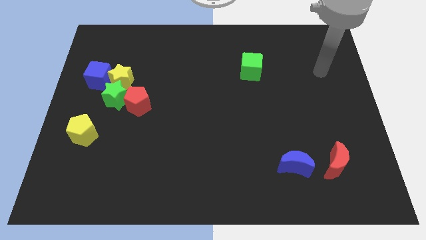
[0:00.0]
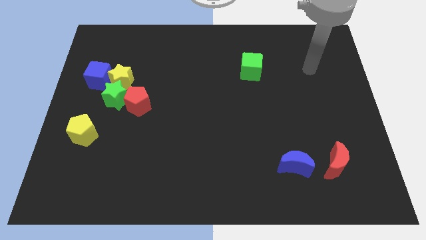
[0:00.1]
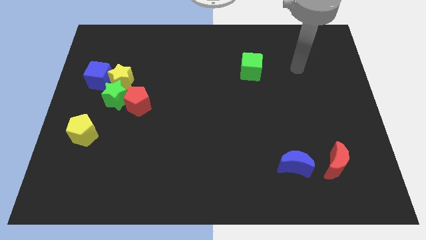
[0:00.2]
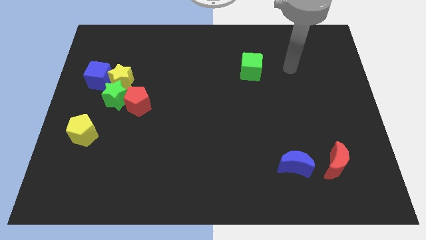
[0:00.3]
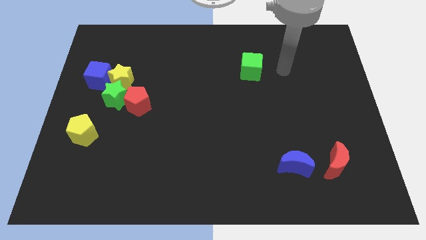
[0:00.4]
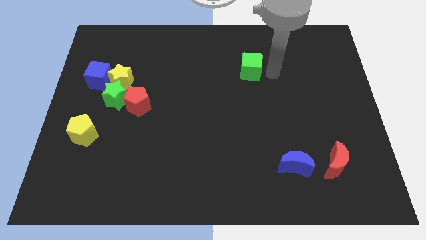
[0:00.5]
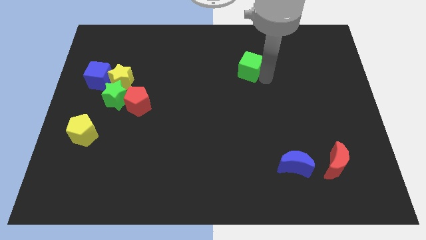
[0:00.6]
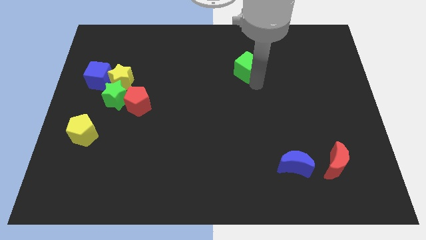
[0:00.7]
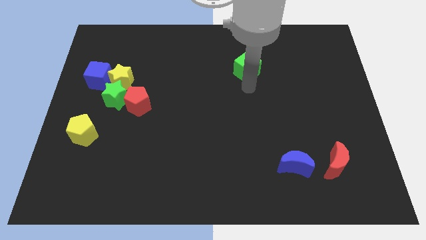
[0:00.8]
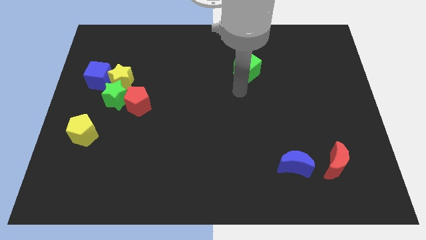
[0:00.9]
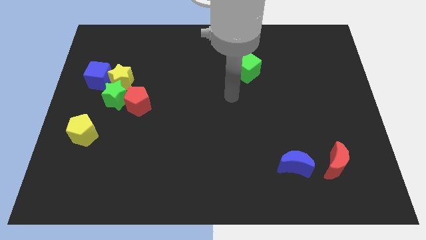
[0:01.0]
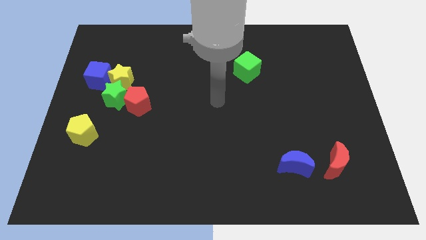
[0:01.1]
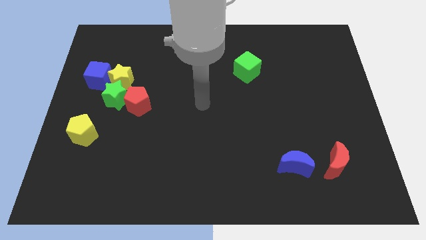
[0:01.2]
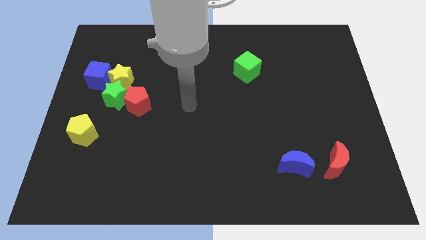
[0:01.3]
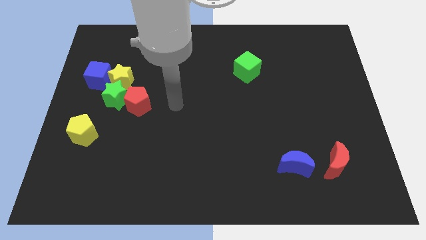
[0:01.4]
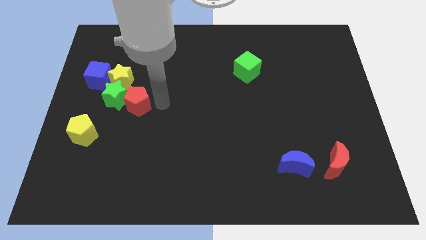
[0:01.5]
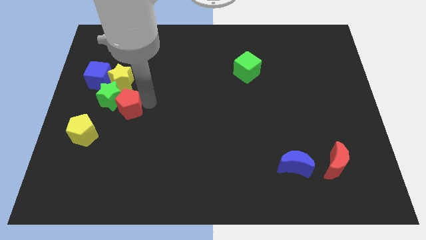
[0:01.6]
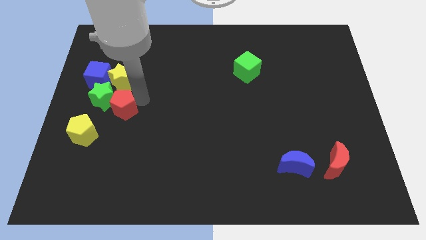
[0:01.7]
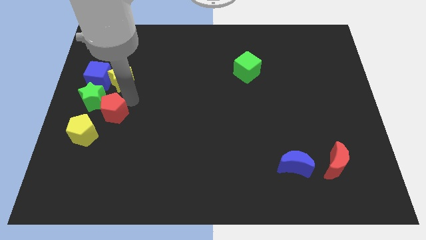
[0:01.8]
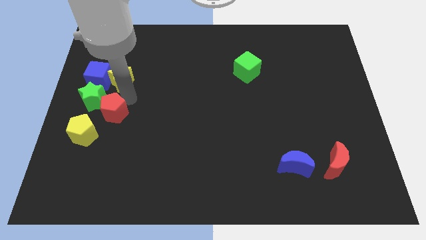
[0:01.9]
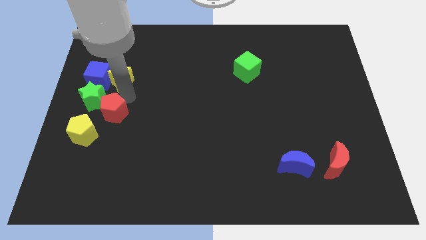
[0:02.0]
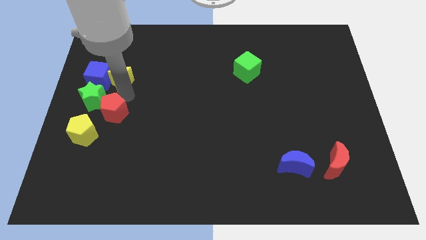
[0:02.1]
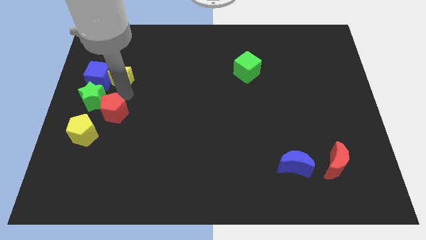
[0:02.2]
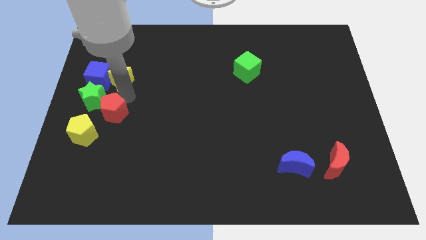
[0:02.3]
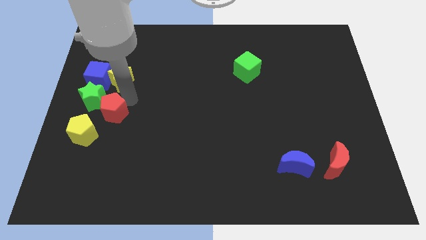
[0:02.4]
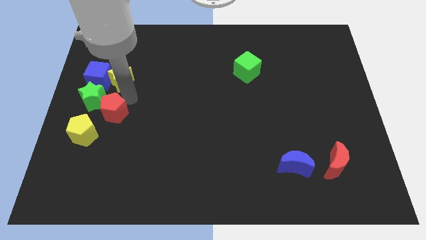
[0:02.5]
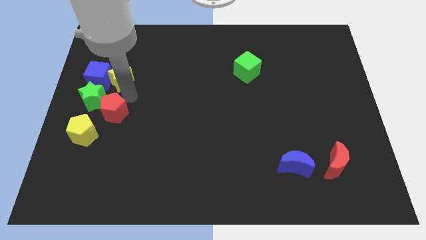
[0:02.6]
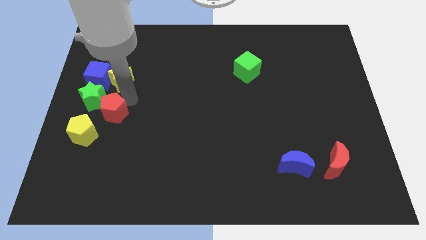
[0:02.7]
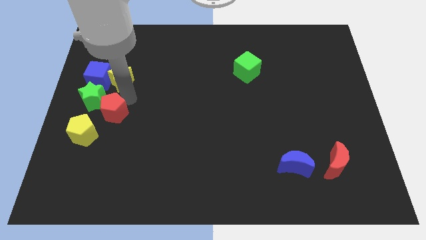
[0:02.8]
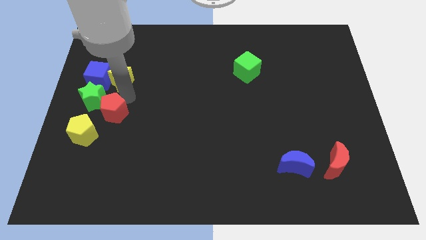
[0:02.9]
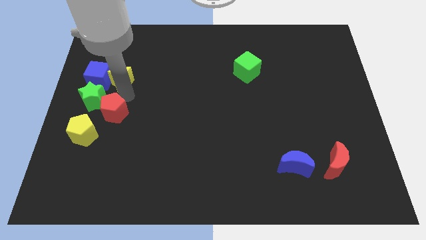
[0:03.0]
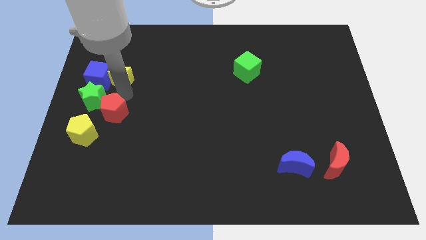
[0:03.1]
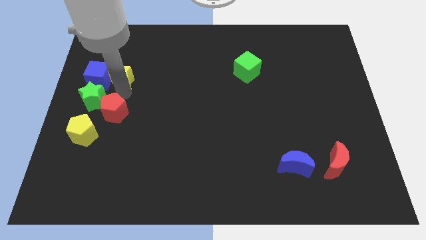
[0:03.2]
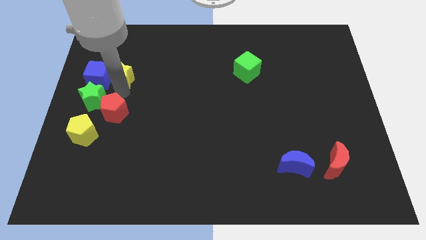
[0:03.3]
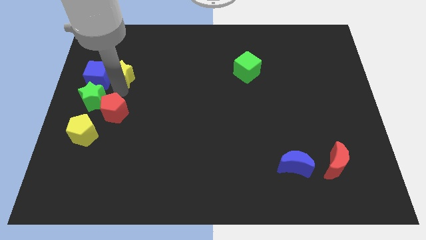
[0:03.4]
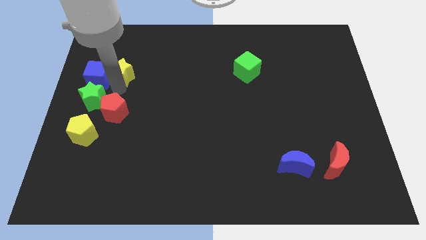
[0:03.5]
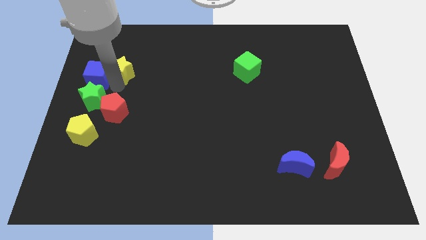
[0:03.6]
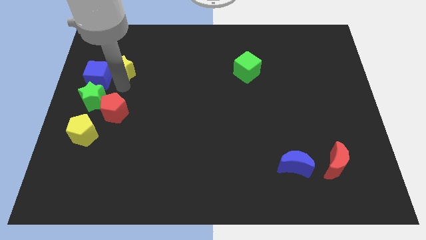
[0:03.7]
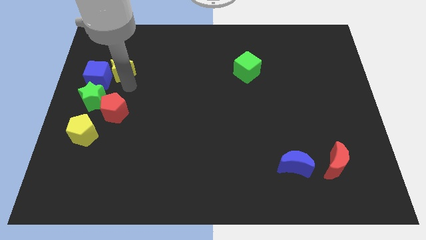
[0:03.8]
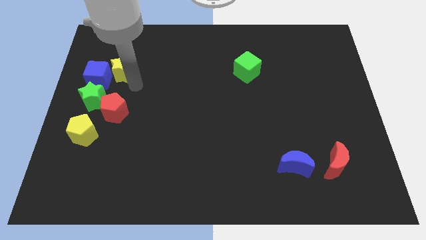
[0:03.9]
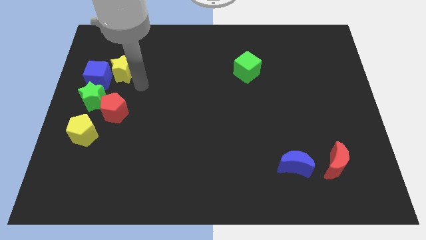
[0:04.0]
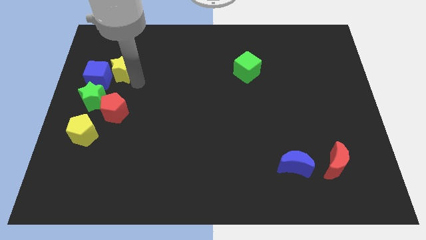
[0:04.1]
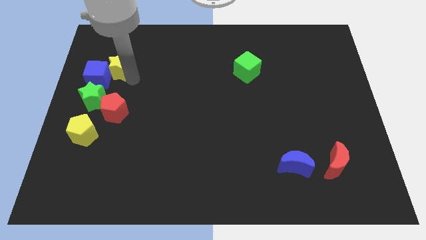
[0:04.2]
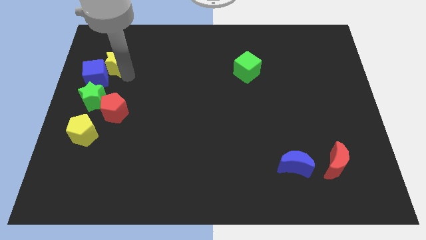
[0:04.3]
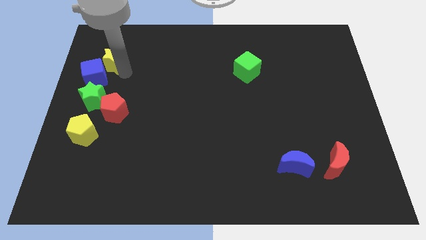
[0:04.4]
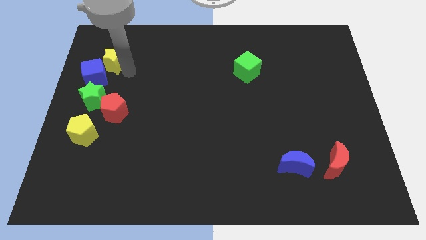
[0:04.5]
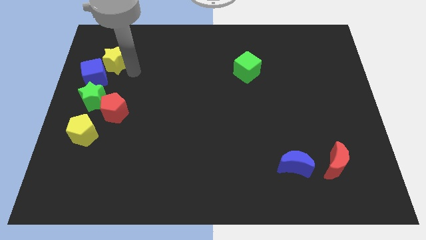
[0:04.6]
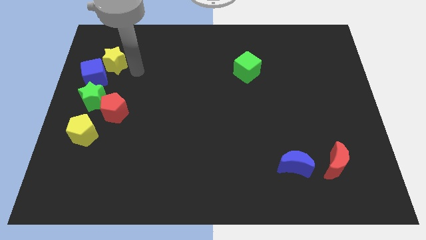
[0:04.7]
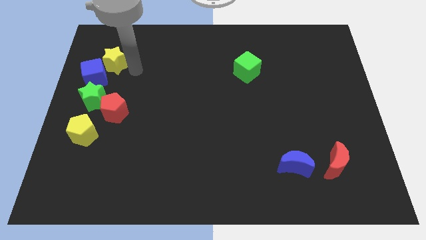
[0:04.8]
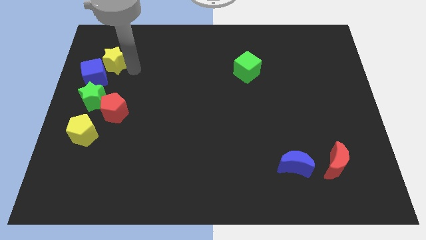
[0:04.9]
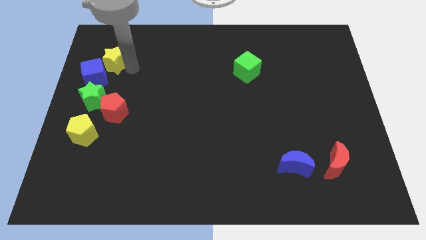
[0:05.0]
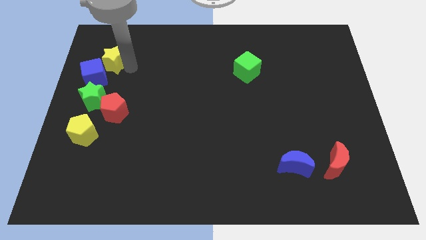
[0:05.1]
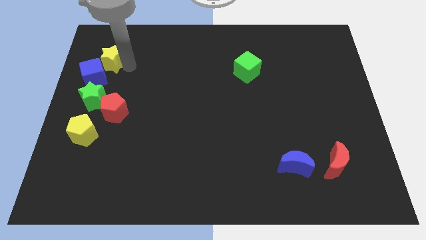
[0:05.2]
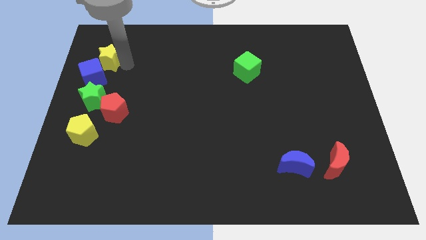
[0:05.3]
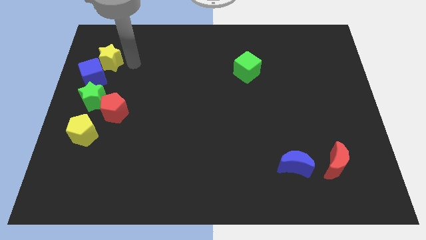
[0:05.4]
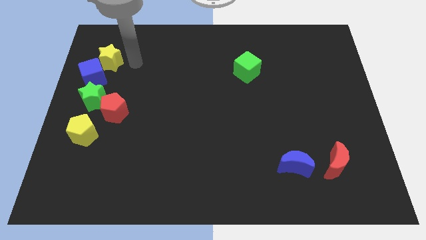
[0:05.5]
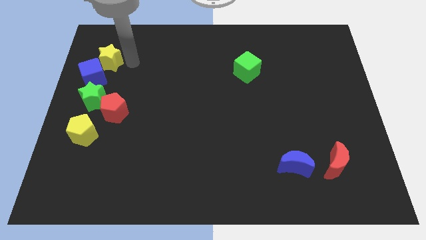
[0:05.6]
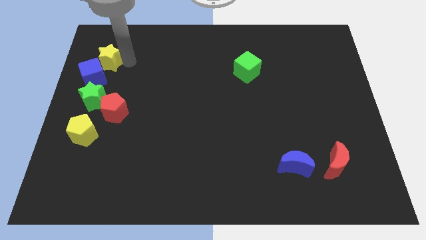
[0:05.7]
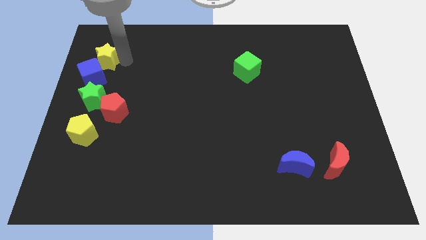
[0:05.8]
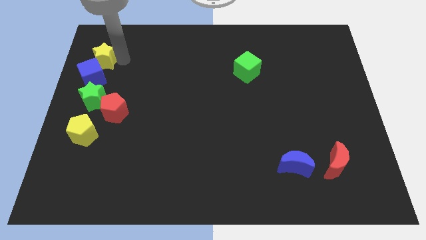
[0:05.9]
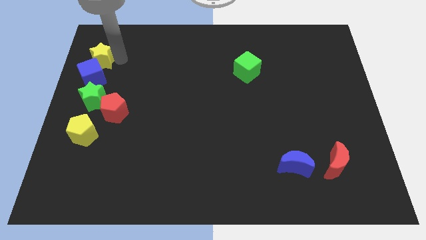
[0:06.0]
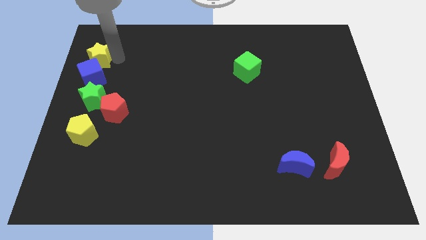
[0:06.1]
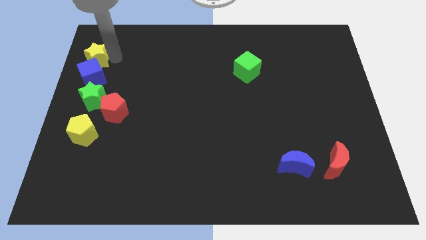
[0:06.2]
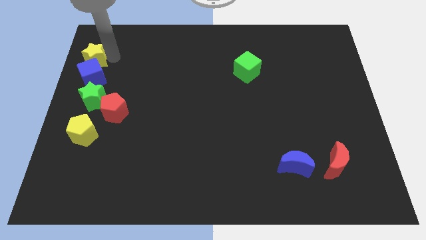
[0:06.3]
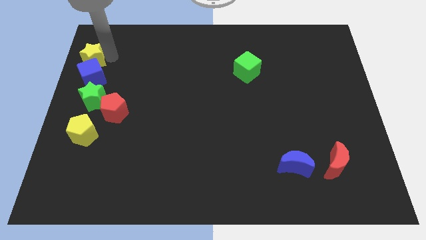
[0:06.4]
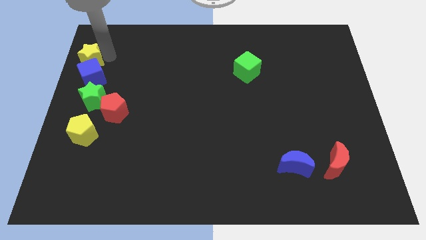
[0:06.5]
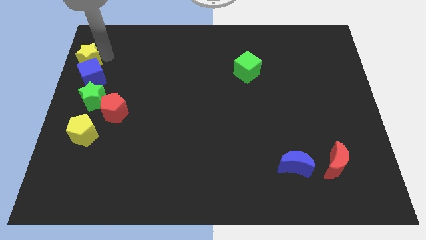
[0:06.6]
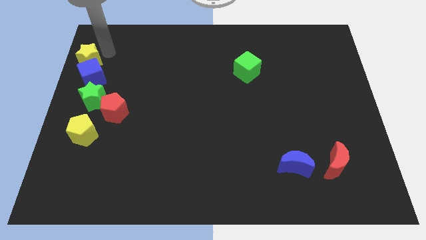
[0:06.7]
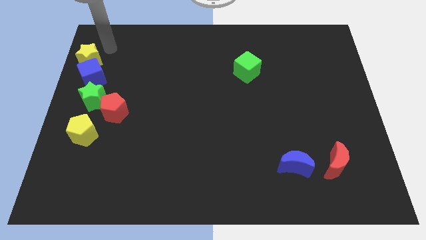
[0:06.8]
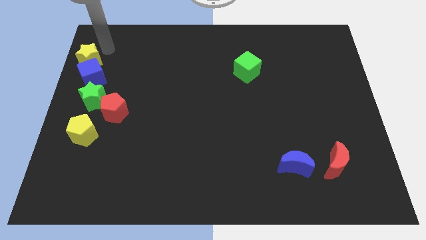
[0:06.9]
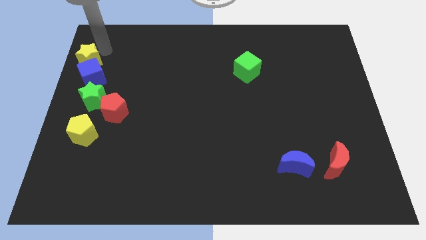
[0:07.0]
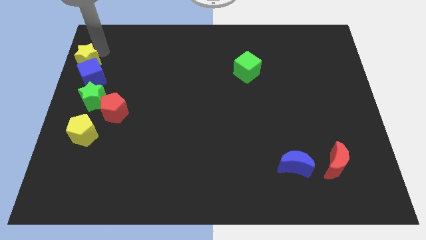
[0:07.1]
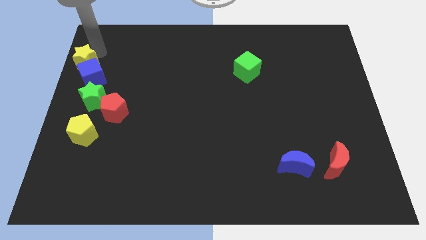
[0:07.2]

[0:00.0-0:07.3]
put the yellow star to the left side of the board
